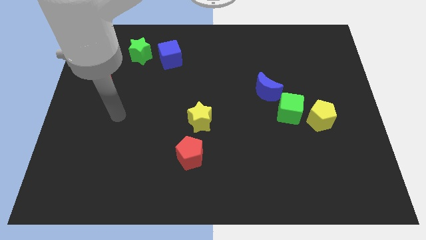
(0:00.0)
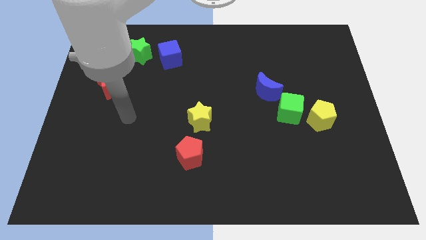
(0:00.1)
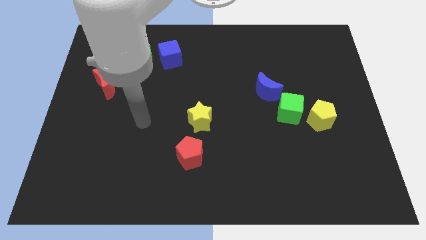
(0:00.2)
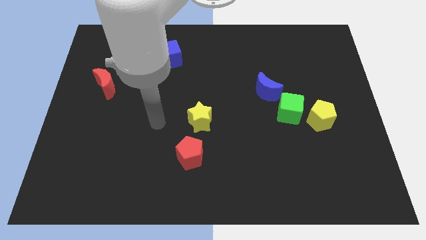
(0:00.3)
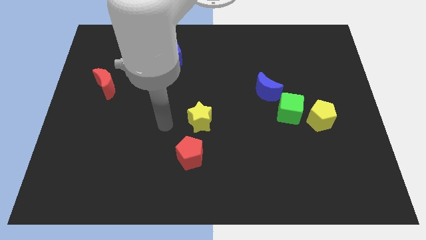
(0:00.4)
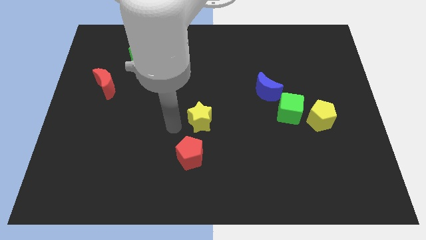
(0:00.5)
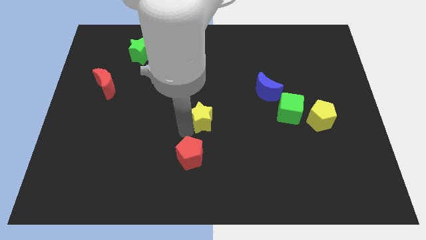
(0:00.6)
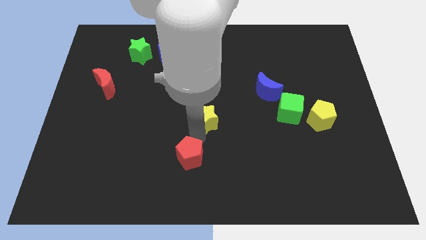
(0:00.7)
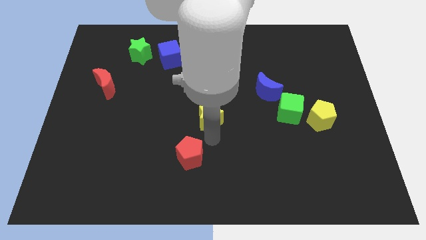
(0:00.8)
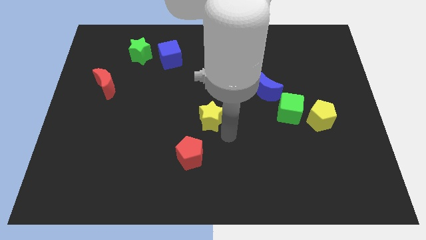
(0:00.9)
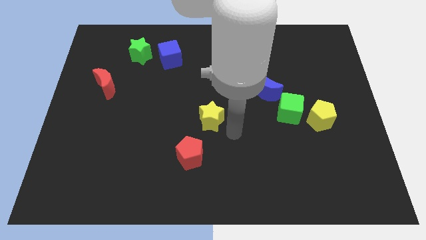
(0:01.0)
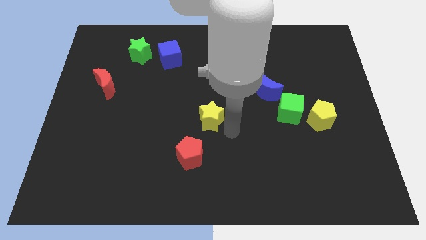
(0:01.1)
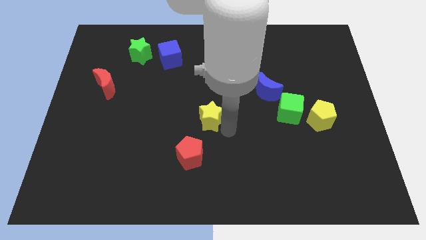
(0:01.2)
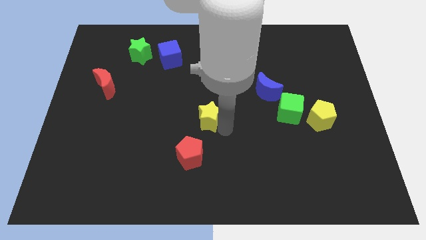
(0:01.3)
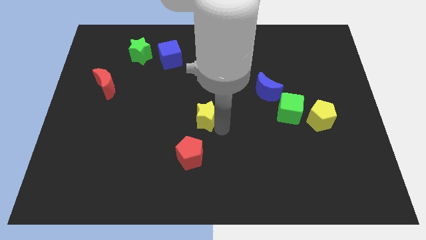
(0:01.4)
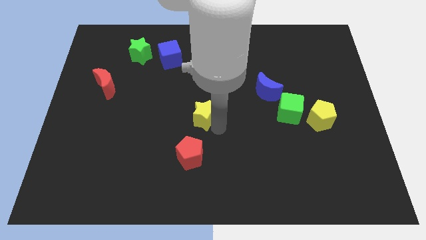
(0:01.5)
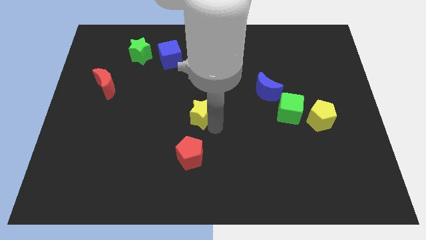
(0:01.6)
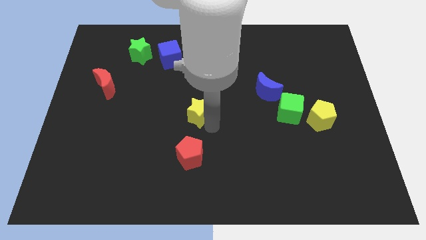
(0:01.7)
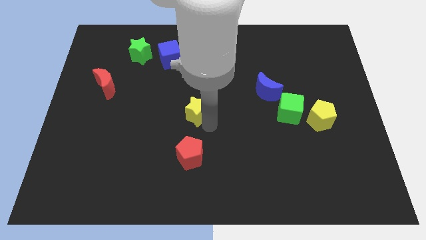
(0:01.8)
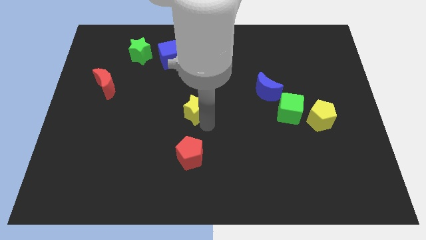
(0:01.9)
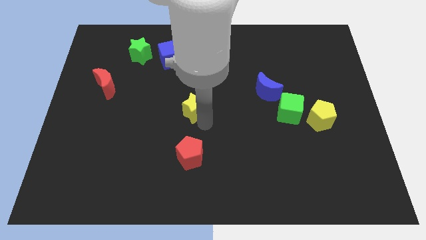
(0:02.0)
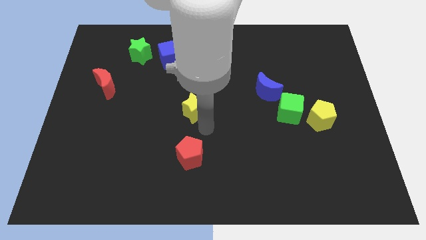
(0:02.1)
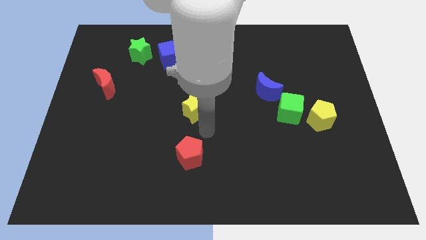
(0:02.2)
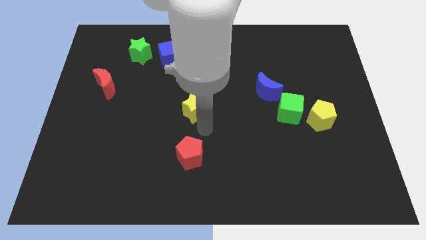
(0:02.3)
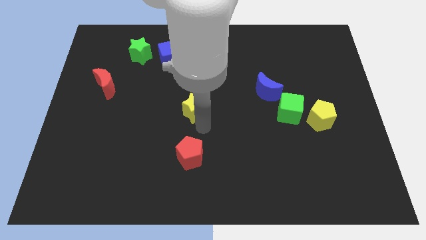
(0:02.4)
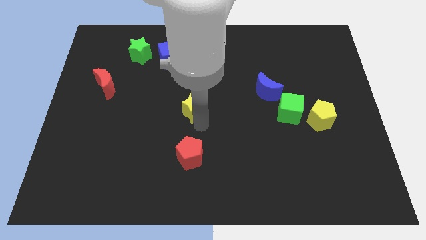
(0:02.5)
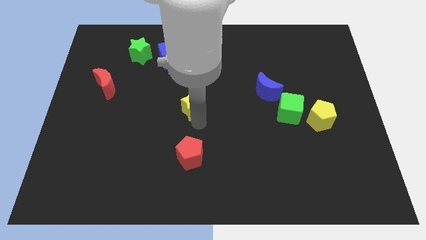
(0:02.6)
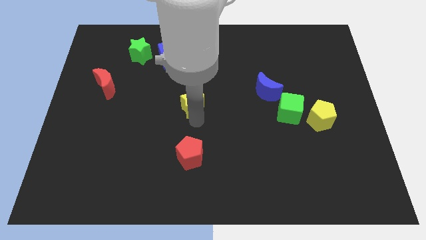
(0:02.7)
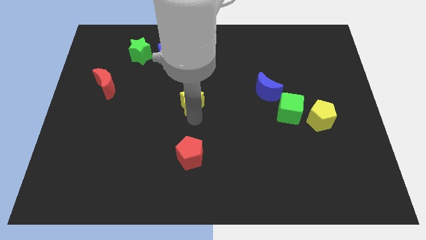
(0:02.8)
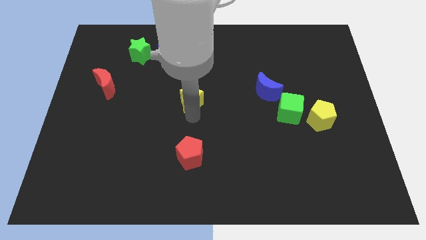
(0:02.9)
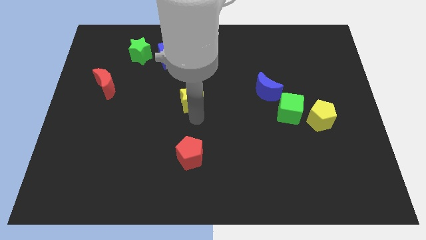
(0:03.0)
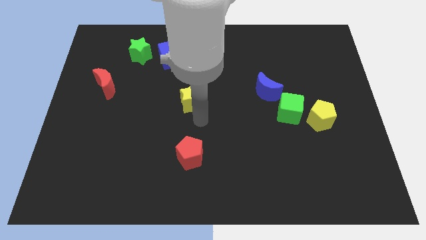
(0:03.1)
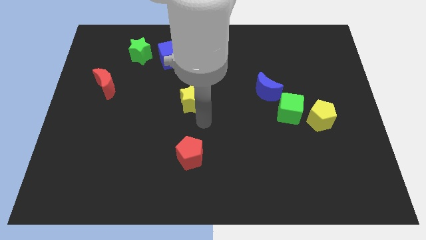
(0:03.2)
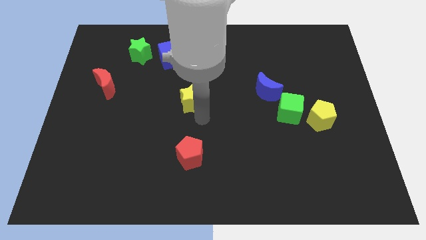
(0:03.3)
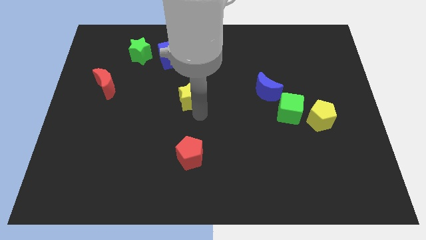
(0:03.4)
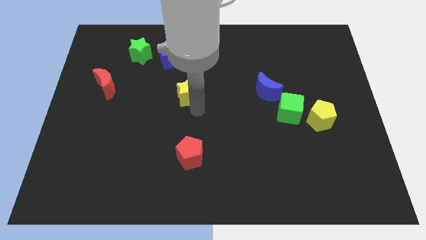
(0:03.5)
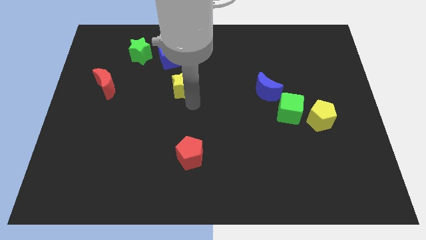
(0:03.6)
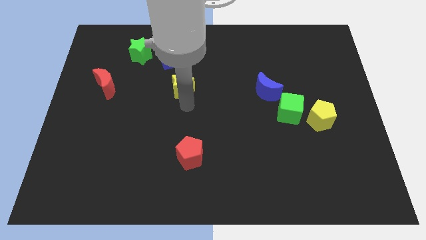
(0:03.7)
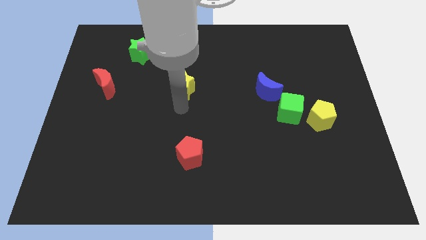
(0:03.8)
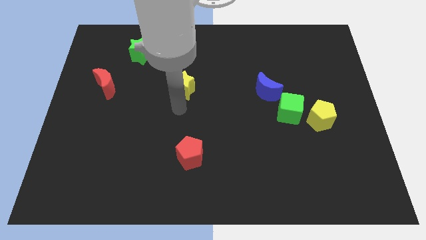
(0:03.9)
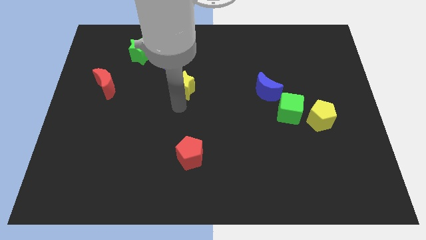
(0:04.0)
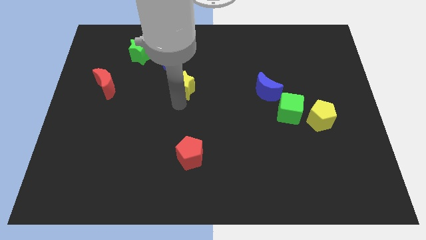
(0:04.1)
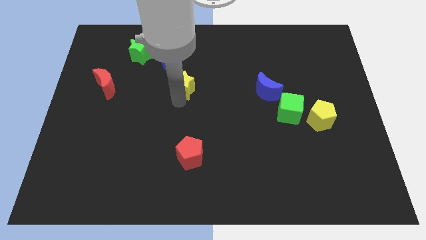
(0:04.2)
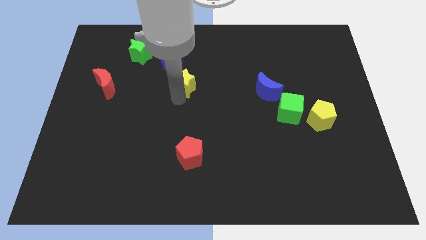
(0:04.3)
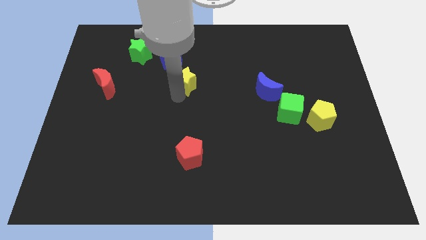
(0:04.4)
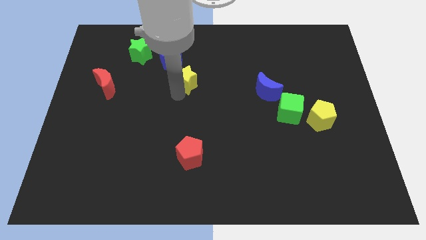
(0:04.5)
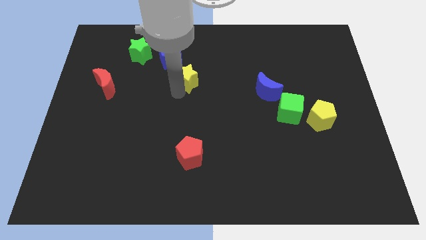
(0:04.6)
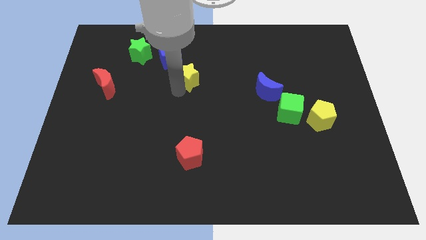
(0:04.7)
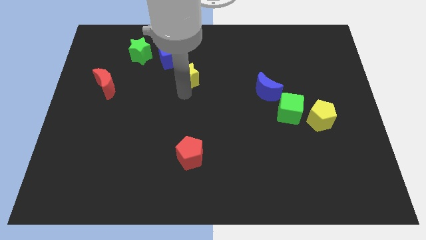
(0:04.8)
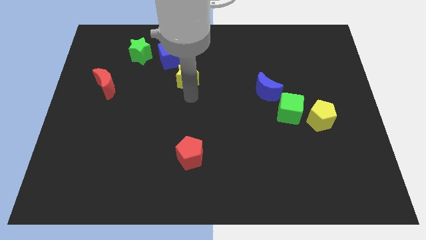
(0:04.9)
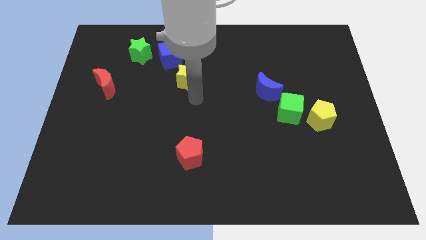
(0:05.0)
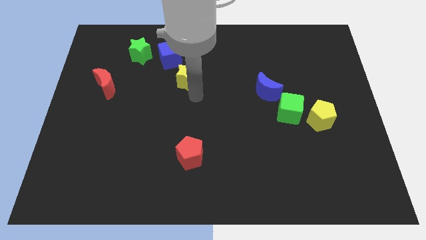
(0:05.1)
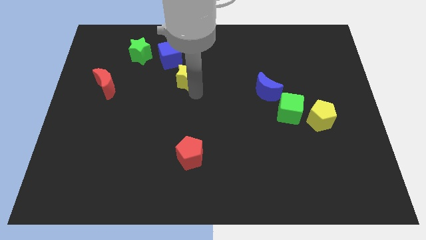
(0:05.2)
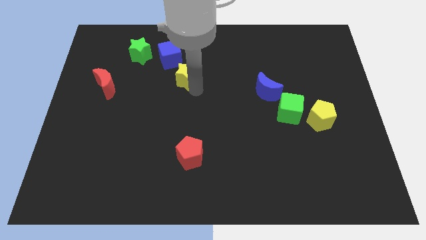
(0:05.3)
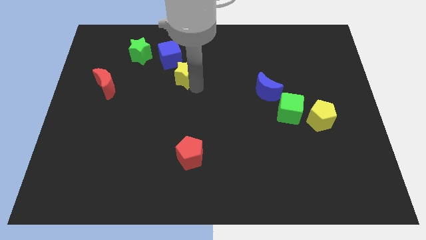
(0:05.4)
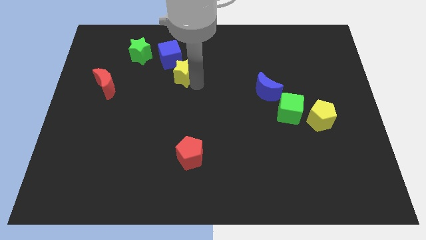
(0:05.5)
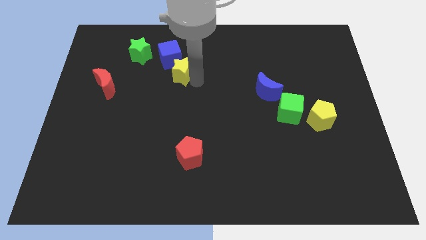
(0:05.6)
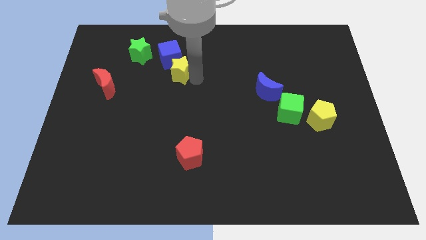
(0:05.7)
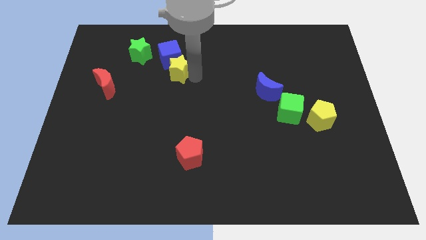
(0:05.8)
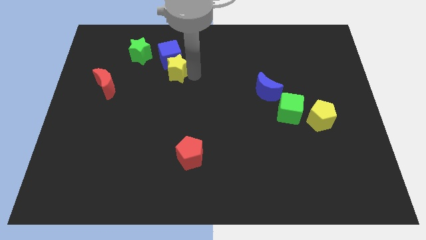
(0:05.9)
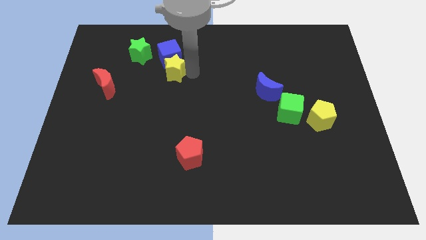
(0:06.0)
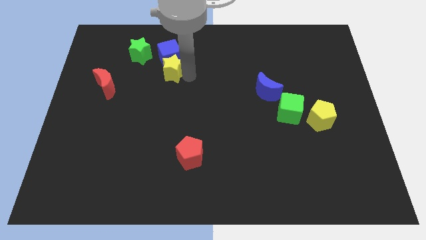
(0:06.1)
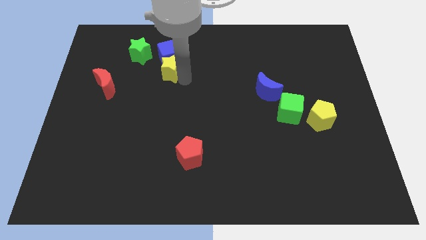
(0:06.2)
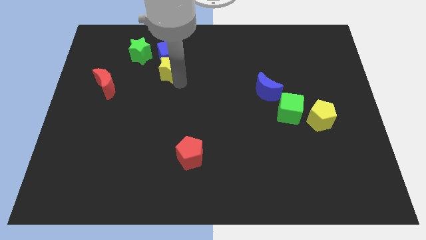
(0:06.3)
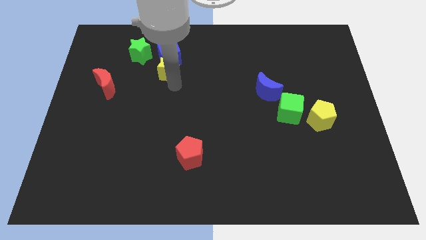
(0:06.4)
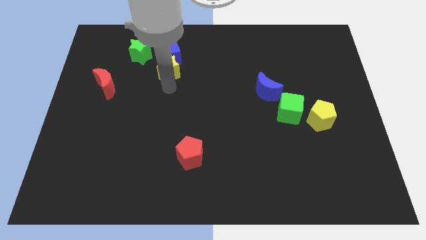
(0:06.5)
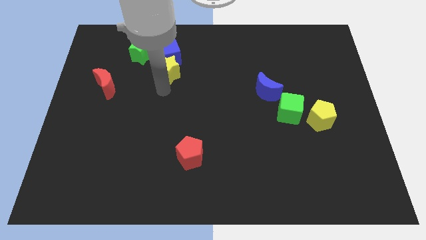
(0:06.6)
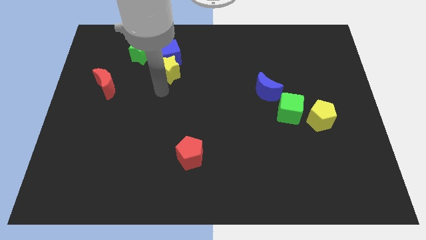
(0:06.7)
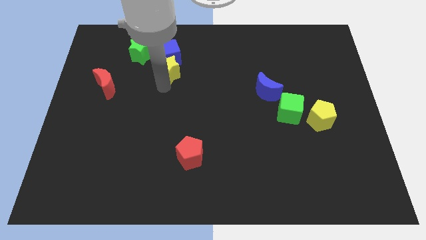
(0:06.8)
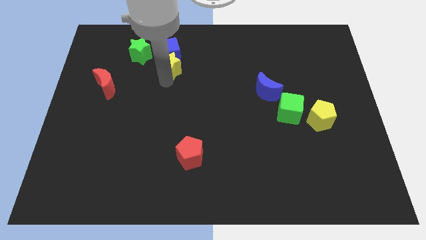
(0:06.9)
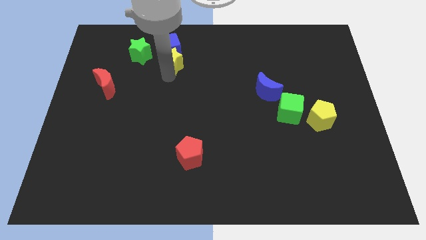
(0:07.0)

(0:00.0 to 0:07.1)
move the yellow star just right of the green star
